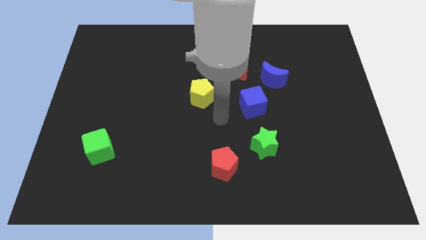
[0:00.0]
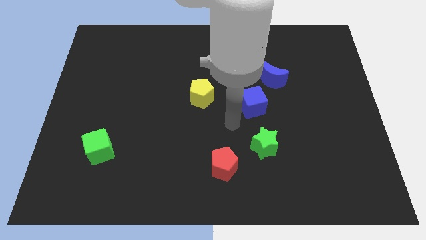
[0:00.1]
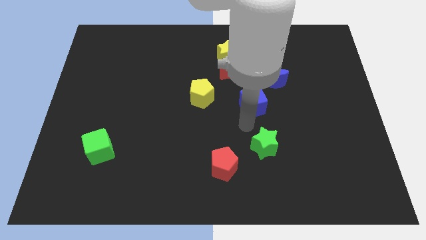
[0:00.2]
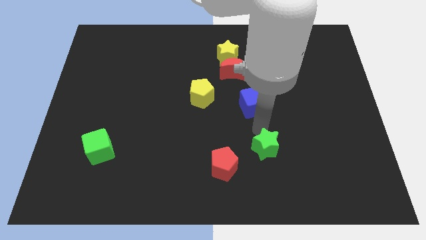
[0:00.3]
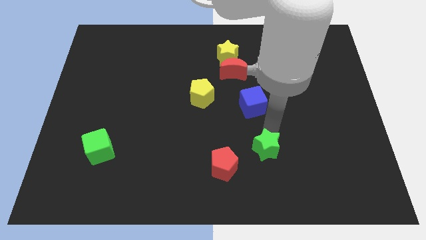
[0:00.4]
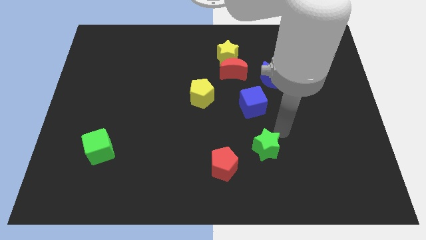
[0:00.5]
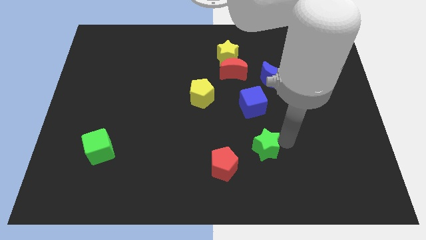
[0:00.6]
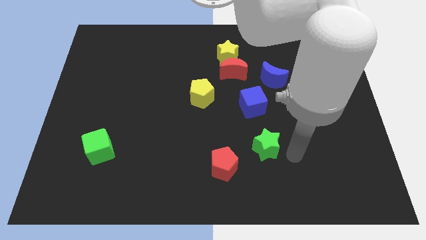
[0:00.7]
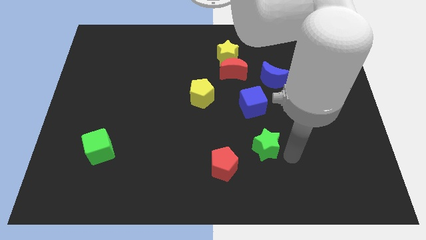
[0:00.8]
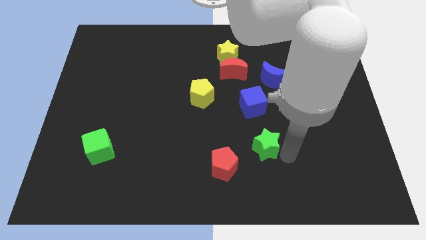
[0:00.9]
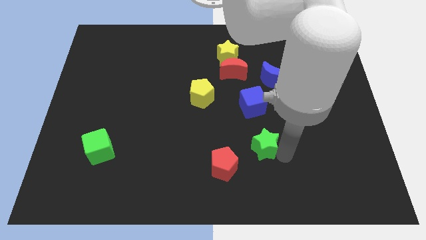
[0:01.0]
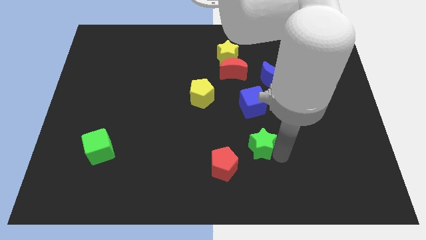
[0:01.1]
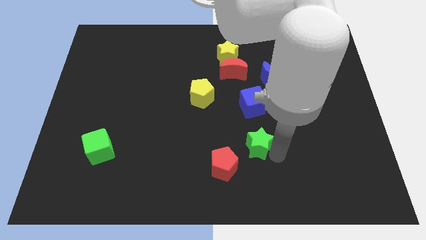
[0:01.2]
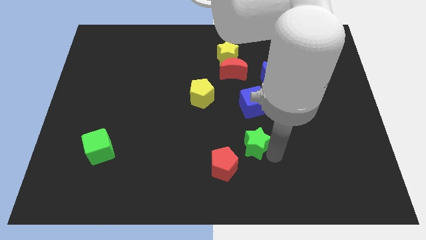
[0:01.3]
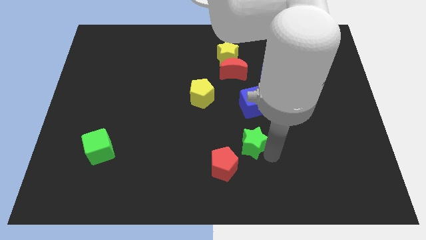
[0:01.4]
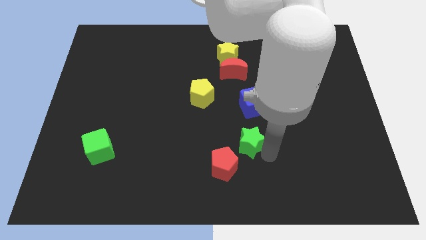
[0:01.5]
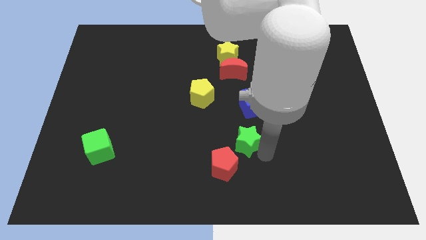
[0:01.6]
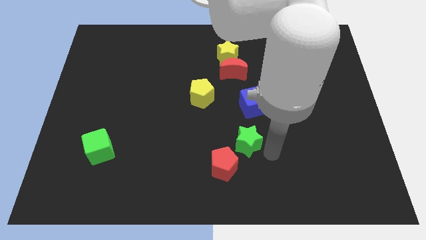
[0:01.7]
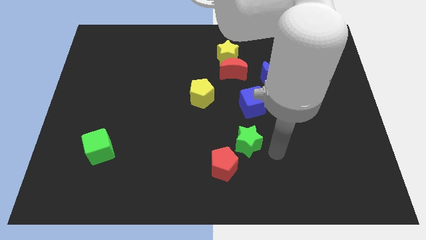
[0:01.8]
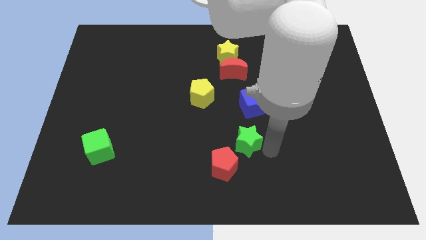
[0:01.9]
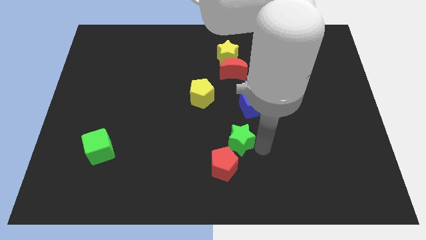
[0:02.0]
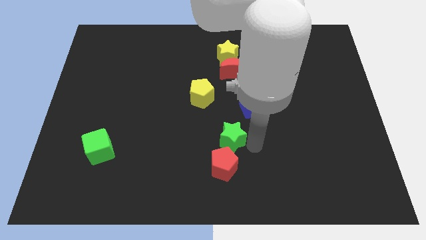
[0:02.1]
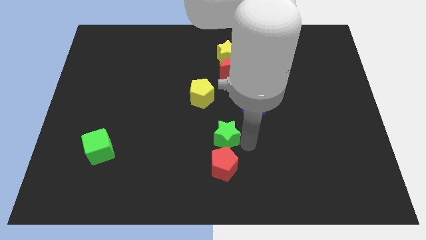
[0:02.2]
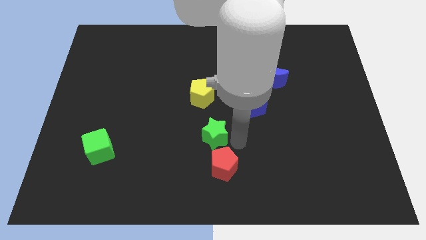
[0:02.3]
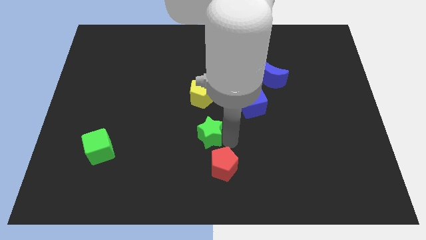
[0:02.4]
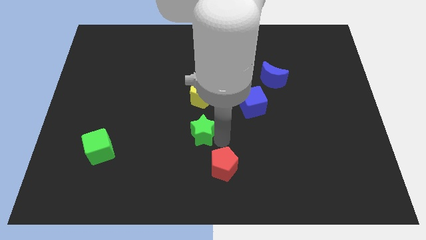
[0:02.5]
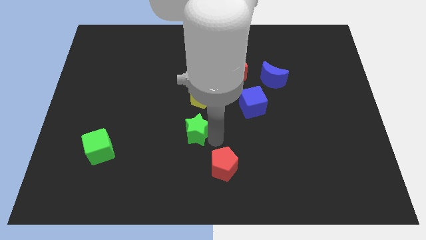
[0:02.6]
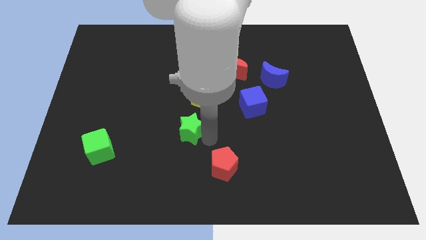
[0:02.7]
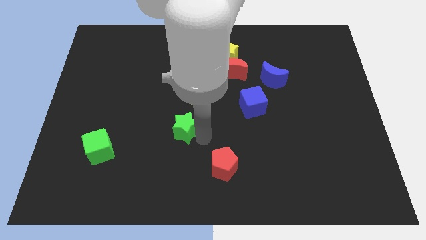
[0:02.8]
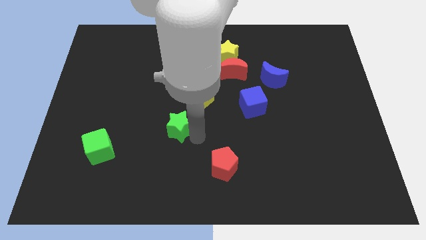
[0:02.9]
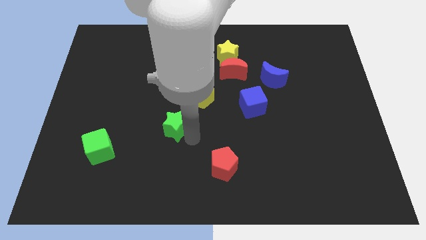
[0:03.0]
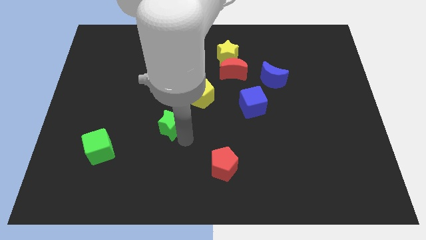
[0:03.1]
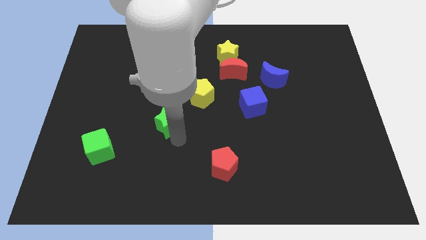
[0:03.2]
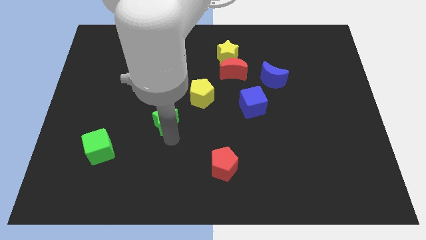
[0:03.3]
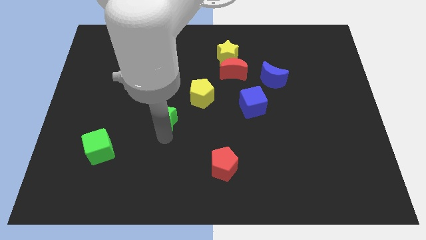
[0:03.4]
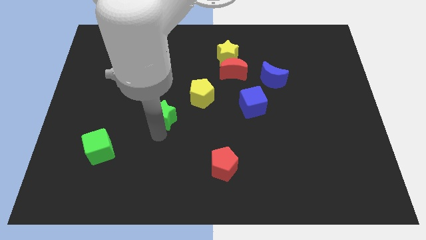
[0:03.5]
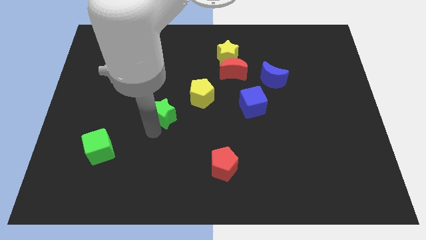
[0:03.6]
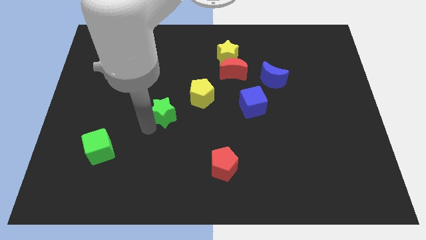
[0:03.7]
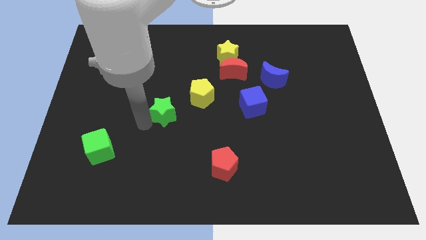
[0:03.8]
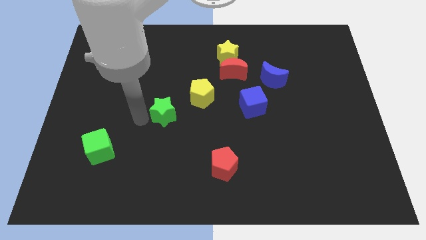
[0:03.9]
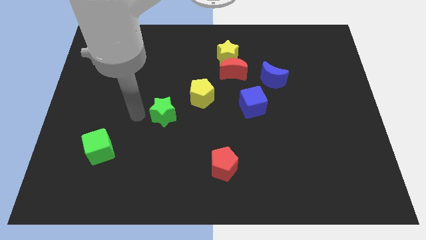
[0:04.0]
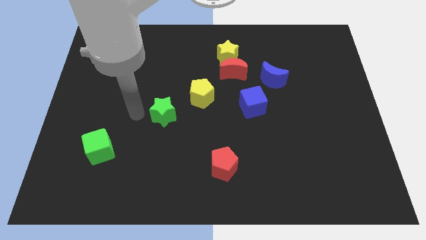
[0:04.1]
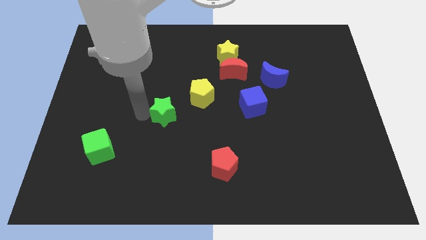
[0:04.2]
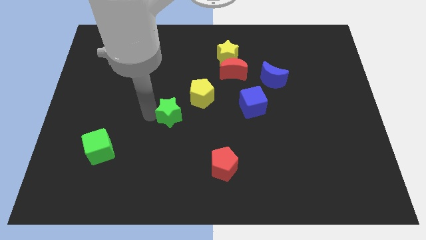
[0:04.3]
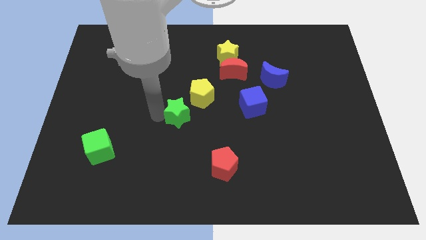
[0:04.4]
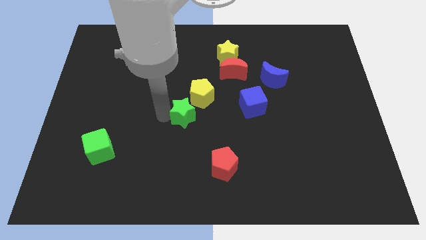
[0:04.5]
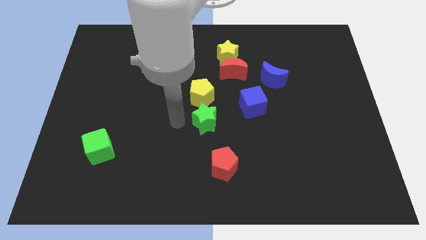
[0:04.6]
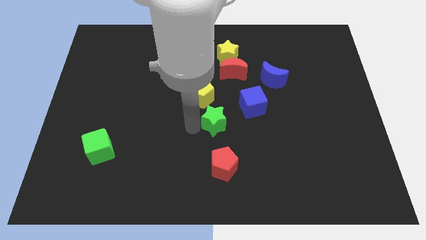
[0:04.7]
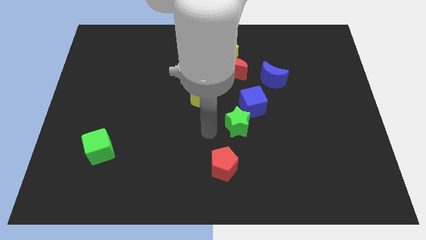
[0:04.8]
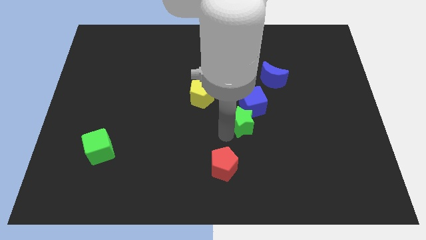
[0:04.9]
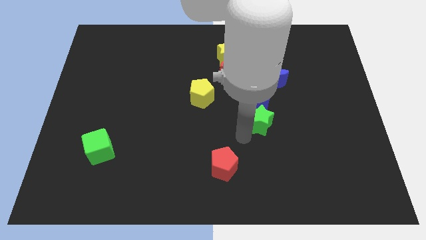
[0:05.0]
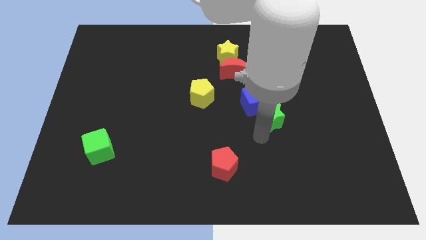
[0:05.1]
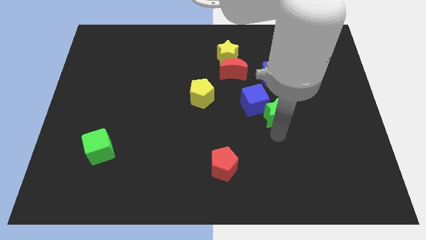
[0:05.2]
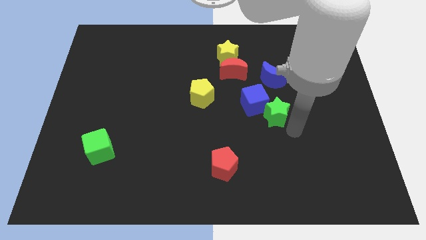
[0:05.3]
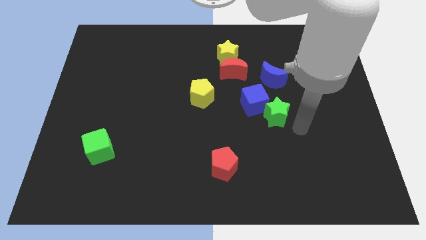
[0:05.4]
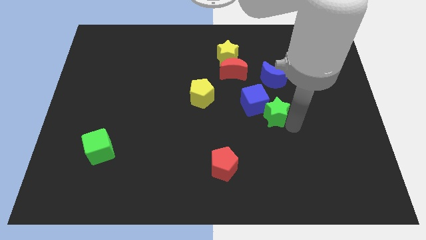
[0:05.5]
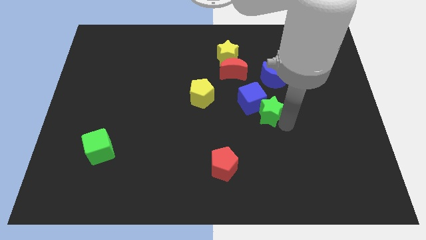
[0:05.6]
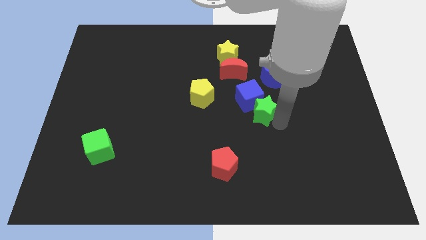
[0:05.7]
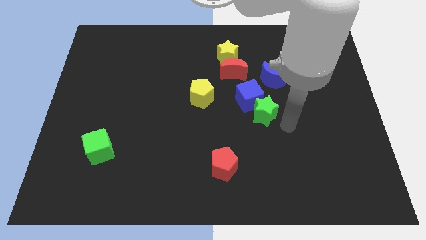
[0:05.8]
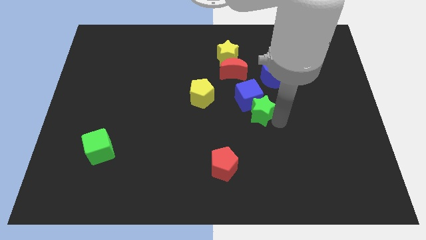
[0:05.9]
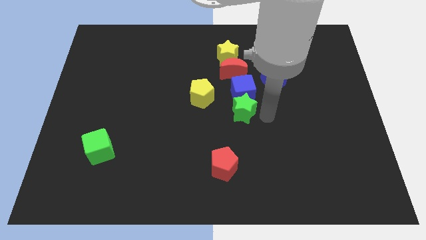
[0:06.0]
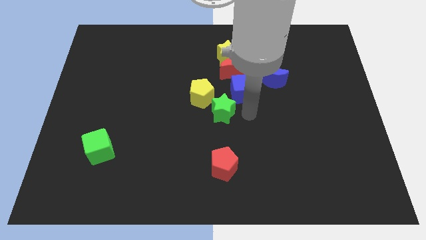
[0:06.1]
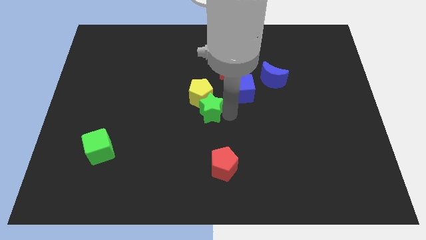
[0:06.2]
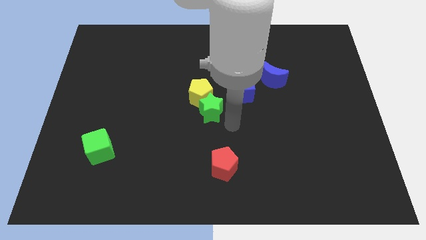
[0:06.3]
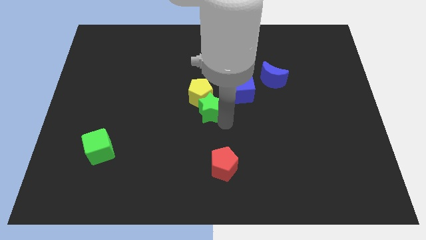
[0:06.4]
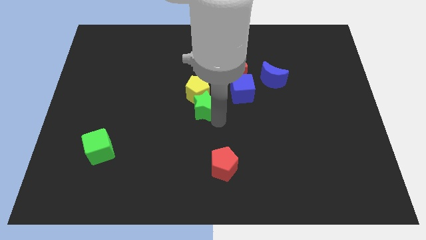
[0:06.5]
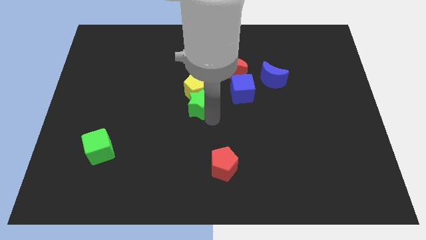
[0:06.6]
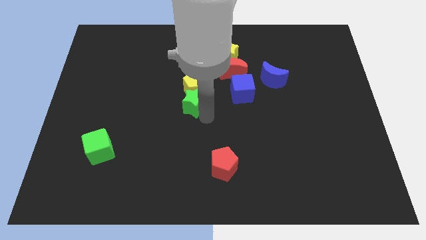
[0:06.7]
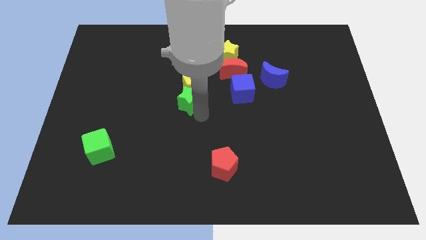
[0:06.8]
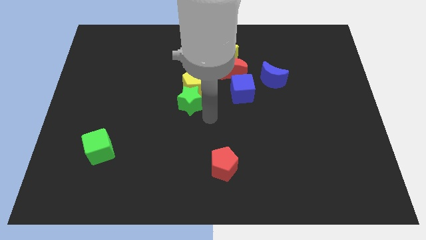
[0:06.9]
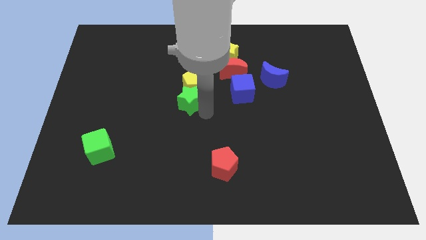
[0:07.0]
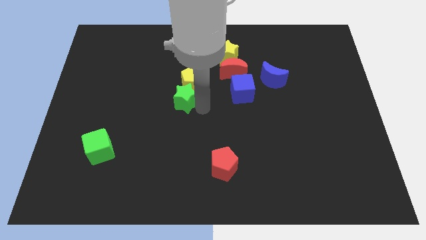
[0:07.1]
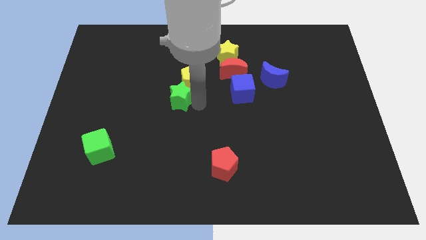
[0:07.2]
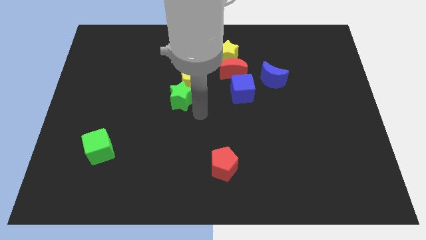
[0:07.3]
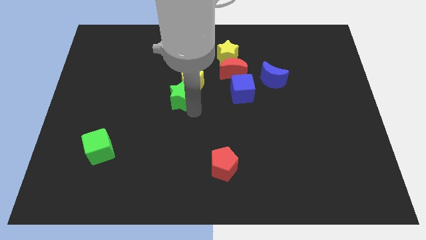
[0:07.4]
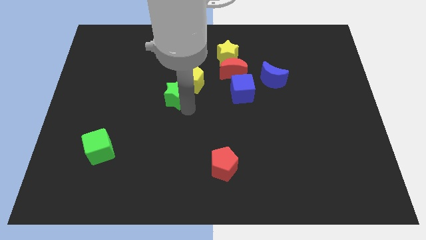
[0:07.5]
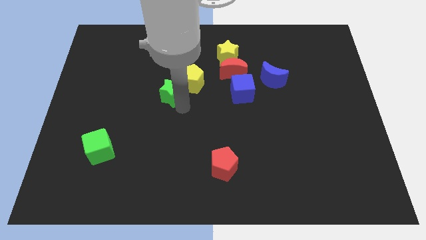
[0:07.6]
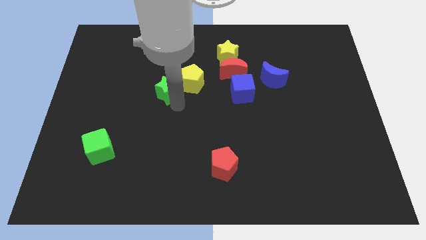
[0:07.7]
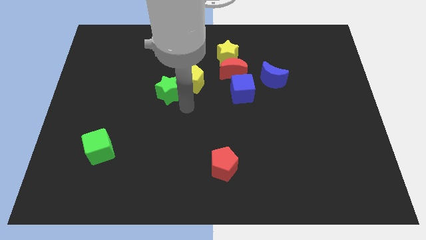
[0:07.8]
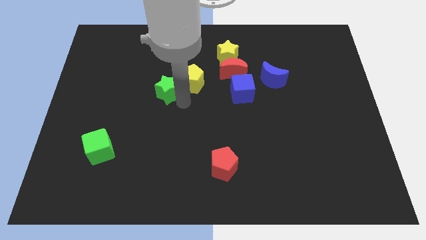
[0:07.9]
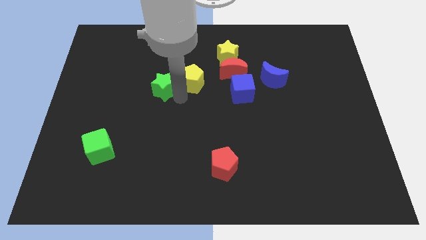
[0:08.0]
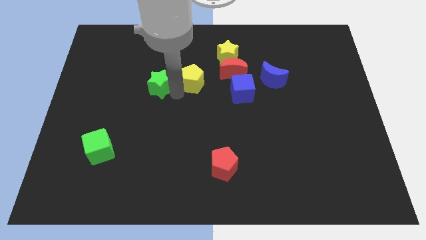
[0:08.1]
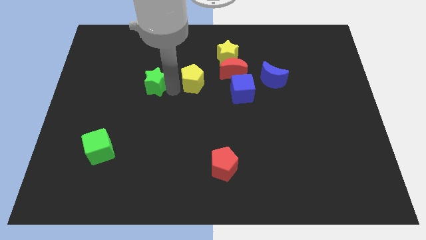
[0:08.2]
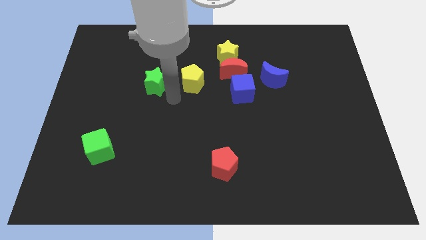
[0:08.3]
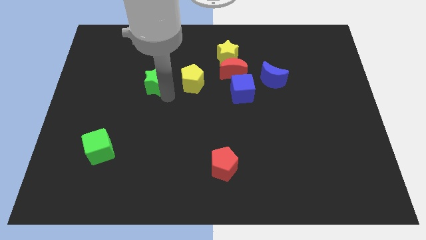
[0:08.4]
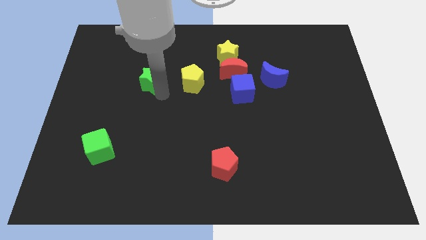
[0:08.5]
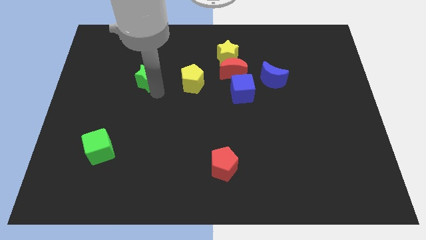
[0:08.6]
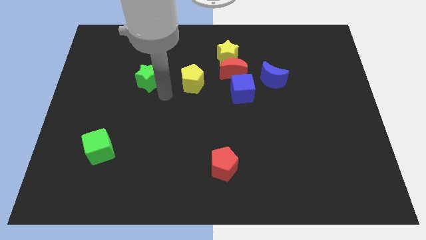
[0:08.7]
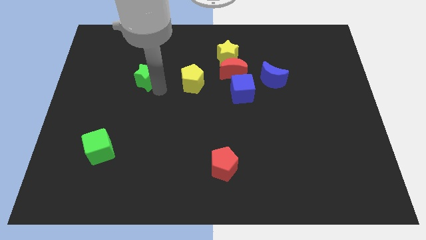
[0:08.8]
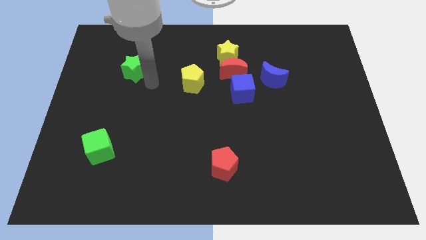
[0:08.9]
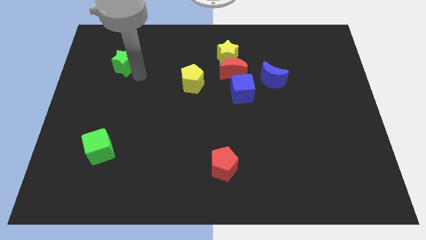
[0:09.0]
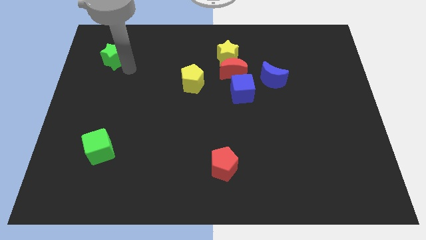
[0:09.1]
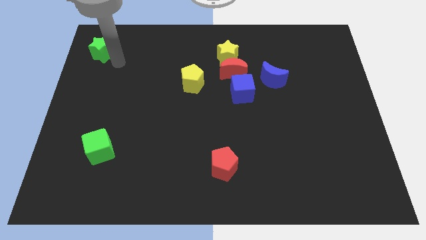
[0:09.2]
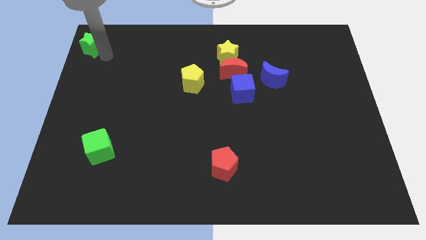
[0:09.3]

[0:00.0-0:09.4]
move the green star to the upper left corner
